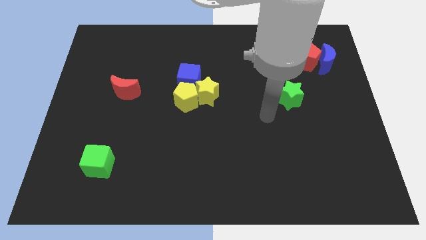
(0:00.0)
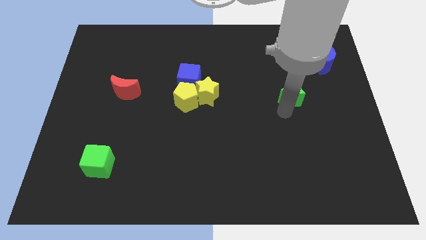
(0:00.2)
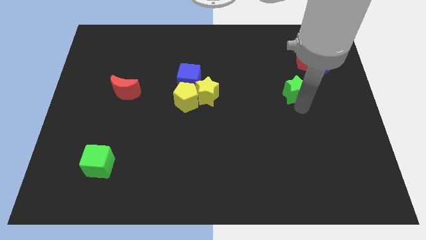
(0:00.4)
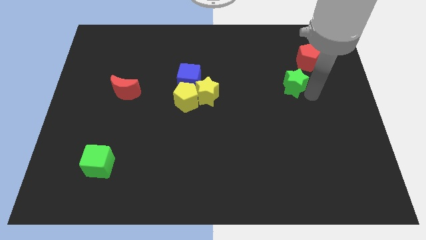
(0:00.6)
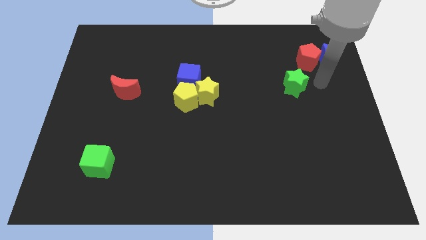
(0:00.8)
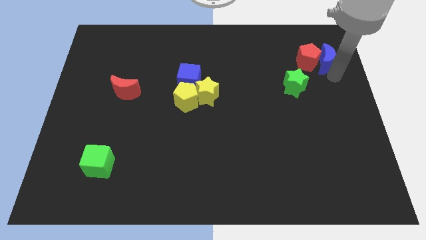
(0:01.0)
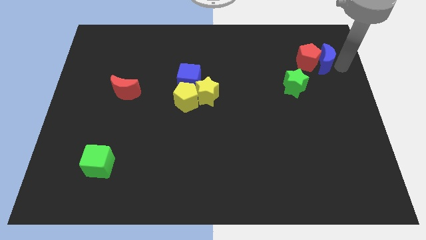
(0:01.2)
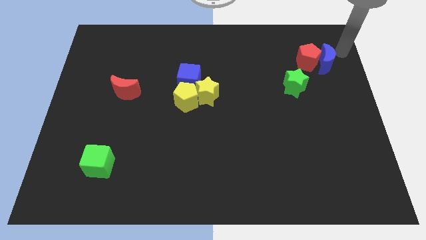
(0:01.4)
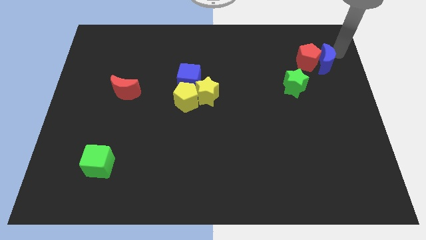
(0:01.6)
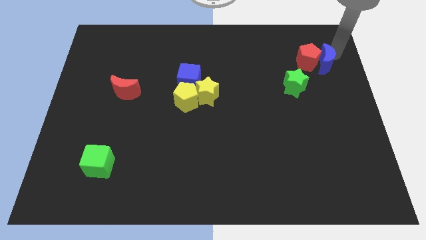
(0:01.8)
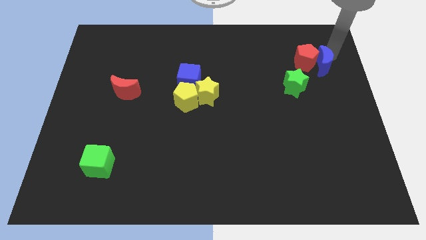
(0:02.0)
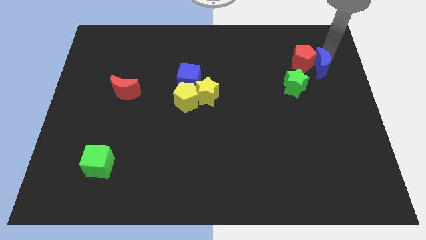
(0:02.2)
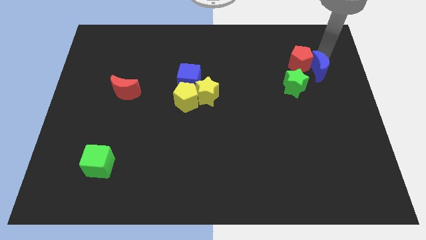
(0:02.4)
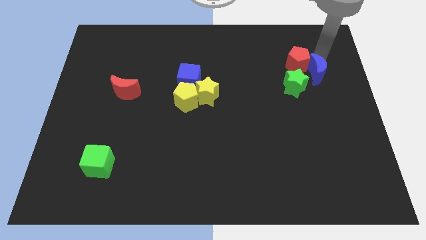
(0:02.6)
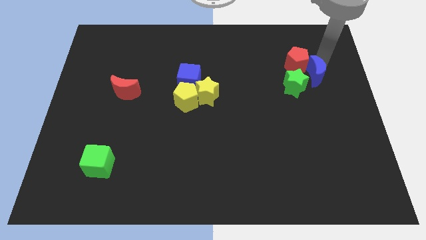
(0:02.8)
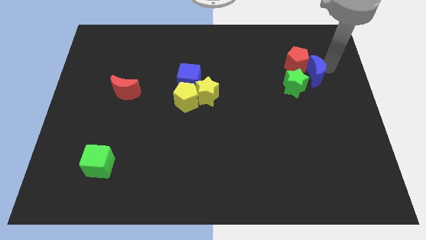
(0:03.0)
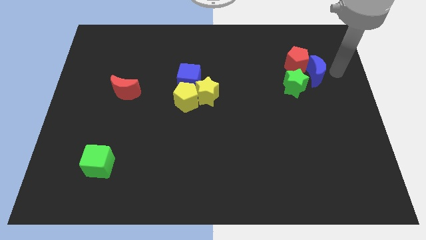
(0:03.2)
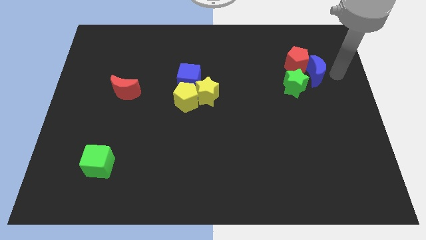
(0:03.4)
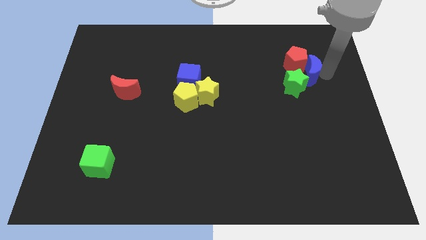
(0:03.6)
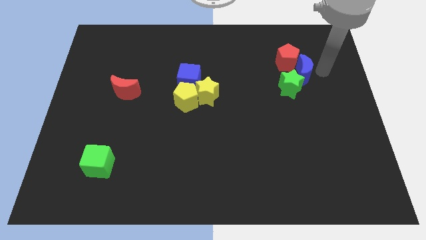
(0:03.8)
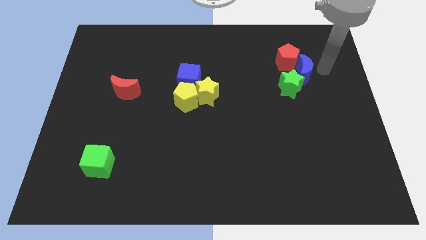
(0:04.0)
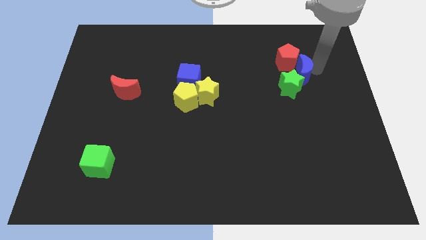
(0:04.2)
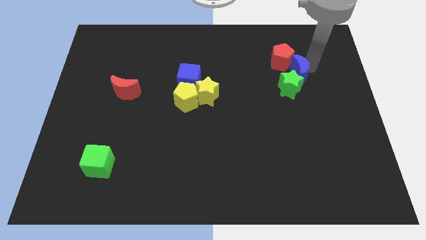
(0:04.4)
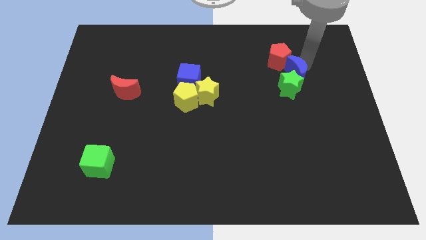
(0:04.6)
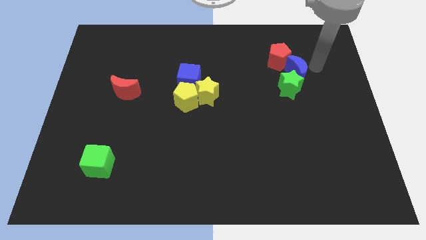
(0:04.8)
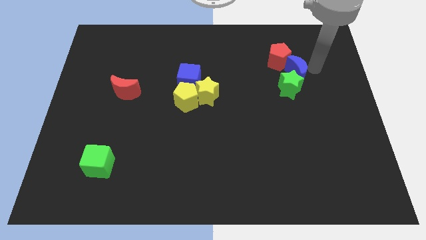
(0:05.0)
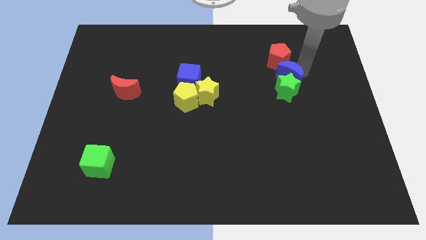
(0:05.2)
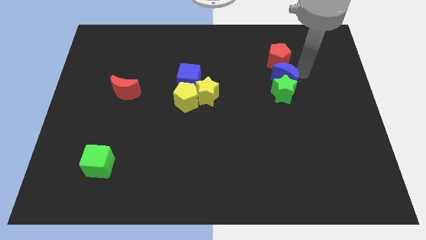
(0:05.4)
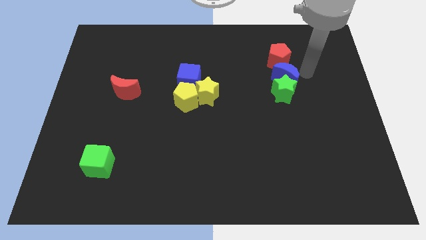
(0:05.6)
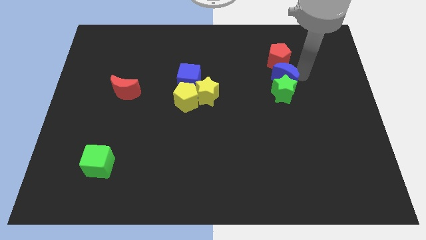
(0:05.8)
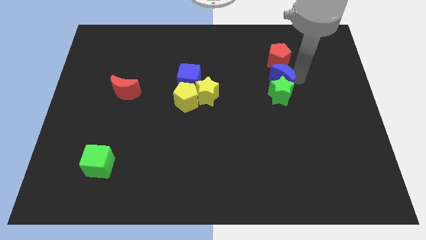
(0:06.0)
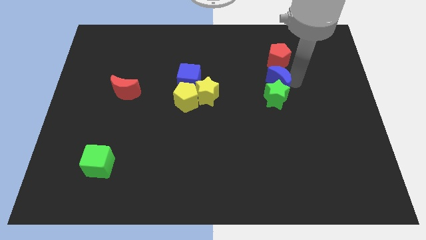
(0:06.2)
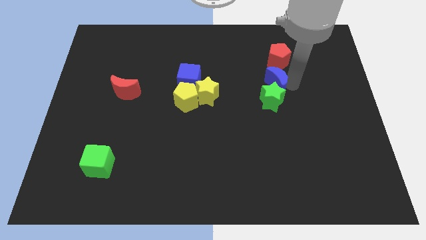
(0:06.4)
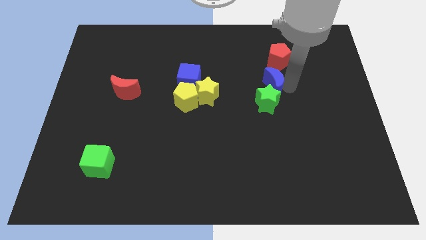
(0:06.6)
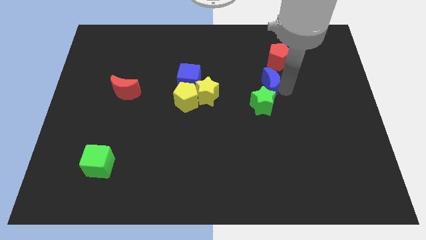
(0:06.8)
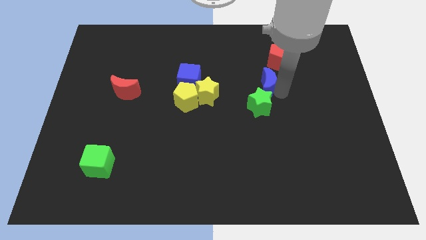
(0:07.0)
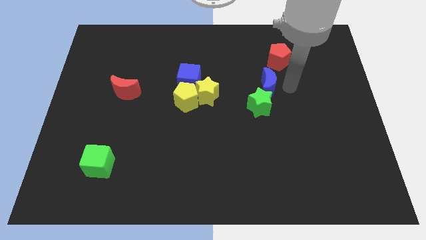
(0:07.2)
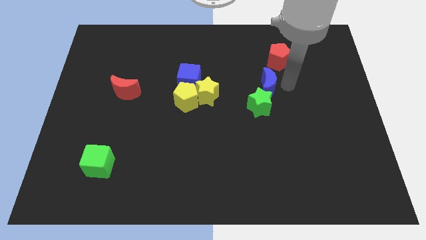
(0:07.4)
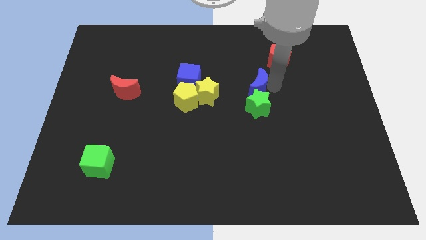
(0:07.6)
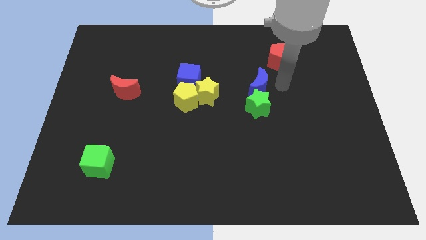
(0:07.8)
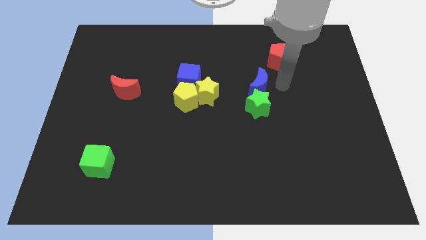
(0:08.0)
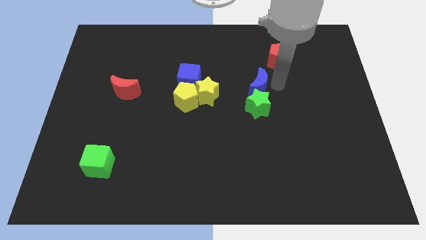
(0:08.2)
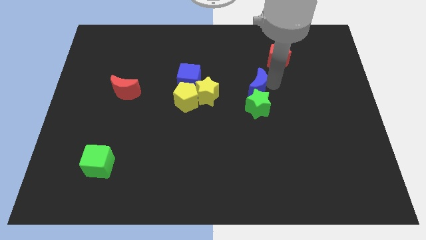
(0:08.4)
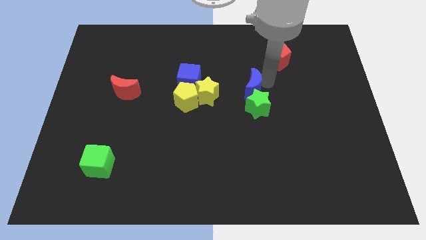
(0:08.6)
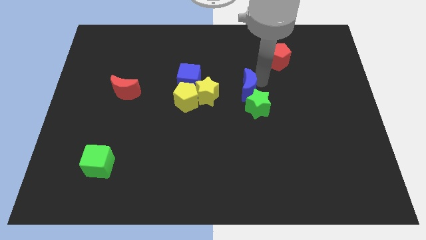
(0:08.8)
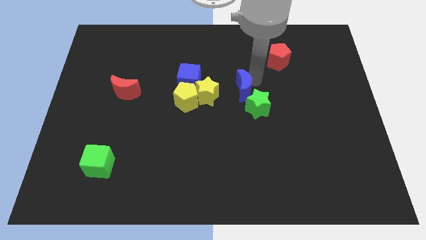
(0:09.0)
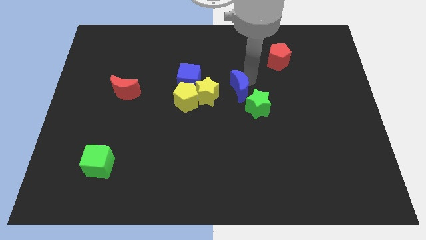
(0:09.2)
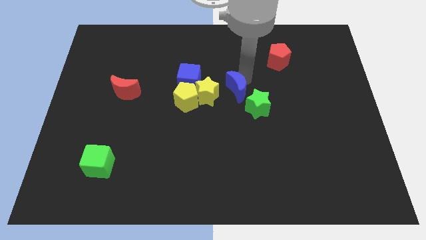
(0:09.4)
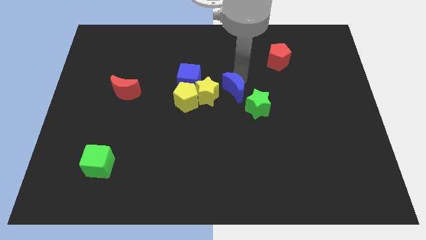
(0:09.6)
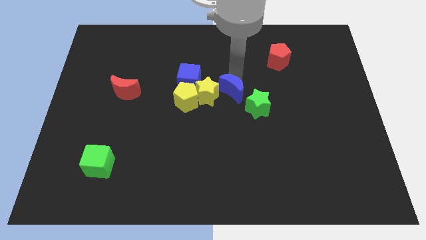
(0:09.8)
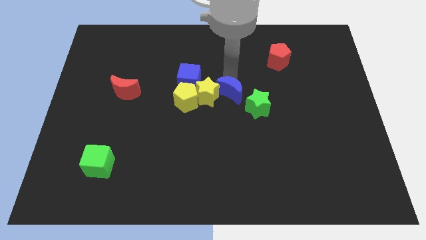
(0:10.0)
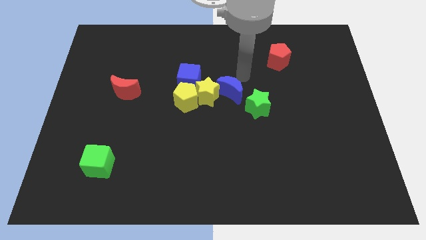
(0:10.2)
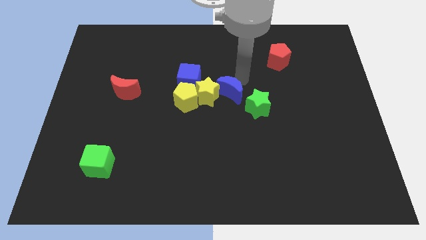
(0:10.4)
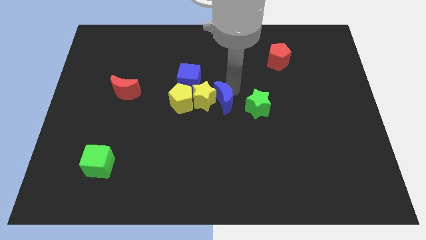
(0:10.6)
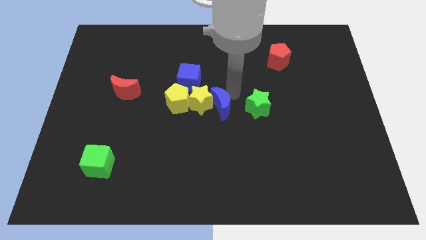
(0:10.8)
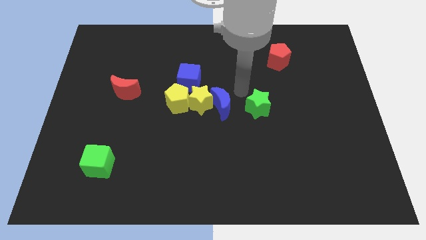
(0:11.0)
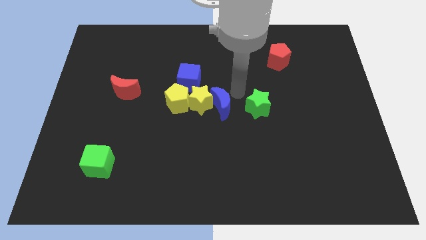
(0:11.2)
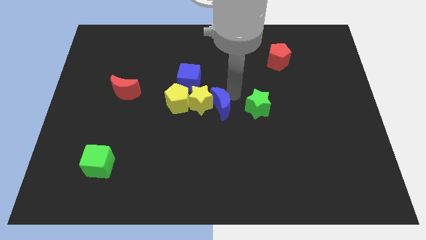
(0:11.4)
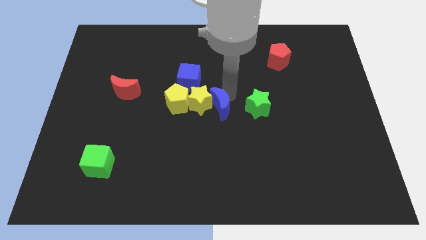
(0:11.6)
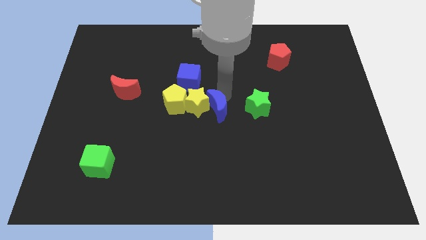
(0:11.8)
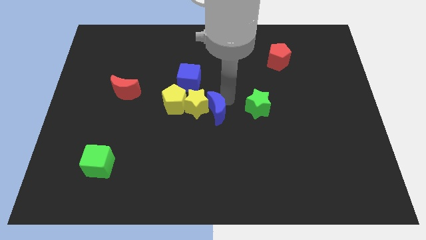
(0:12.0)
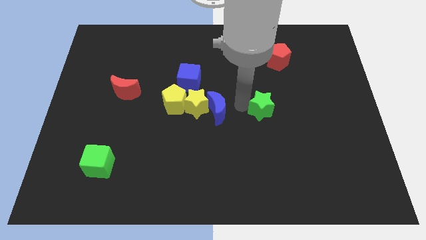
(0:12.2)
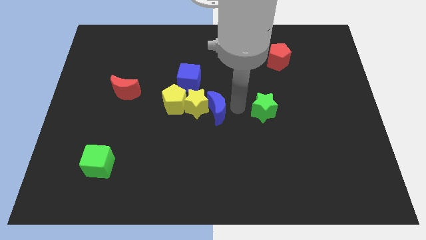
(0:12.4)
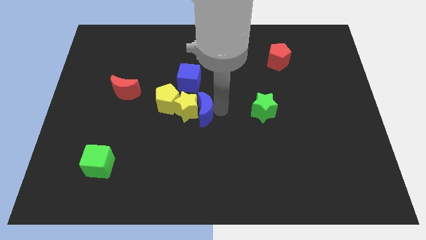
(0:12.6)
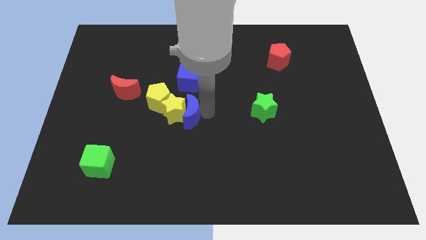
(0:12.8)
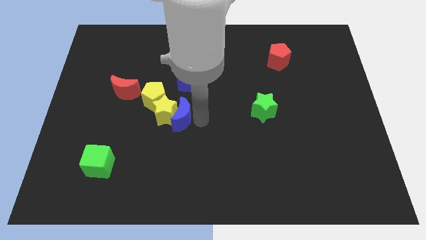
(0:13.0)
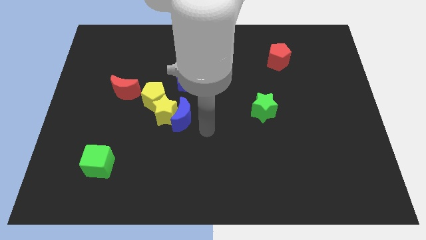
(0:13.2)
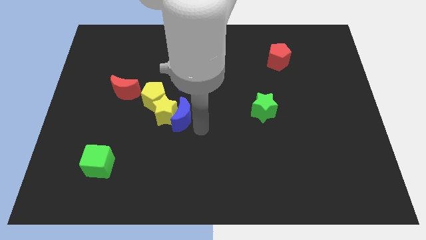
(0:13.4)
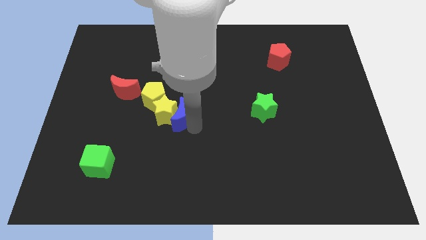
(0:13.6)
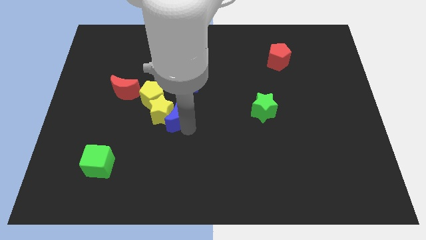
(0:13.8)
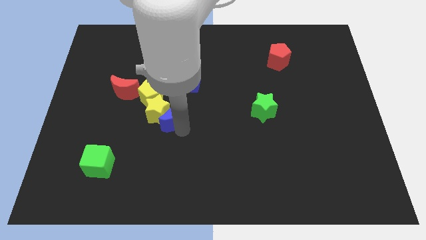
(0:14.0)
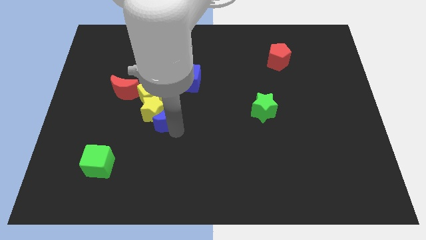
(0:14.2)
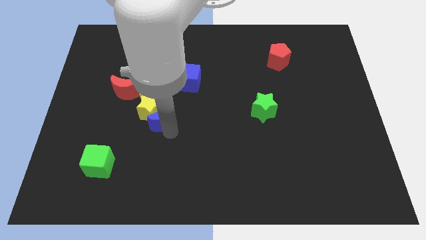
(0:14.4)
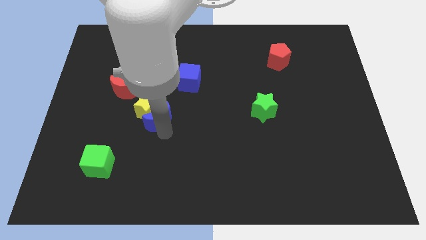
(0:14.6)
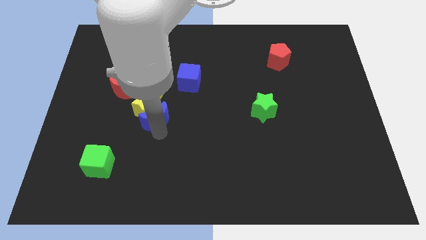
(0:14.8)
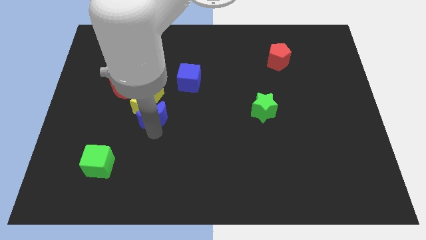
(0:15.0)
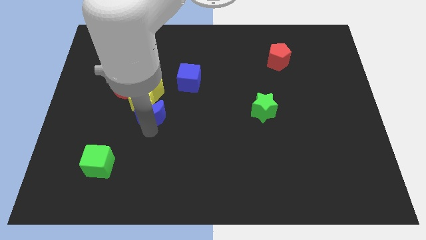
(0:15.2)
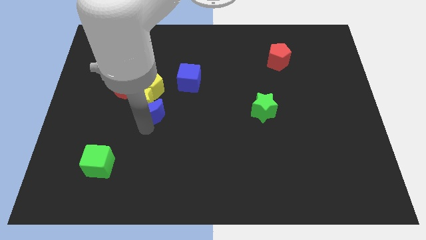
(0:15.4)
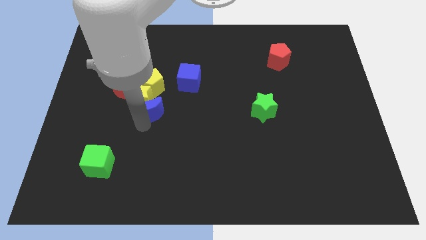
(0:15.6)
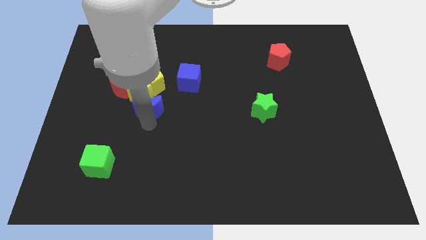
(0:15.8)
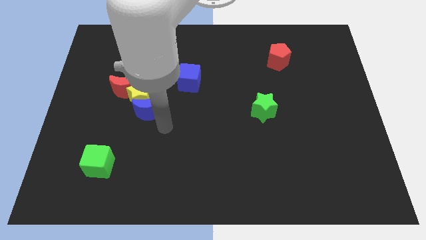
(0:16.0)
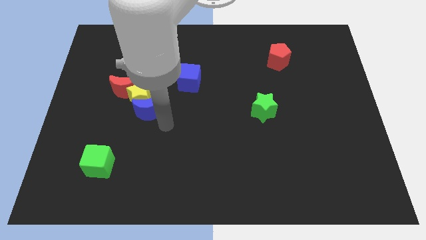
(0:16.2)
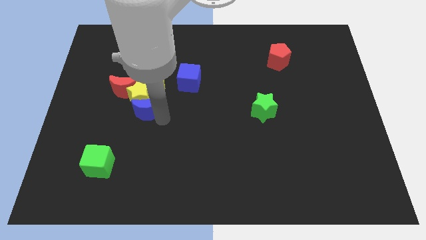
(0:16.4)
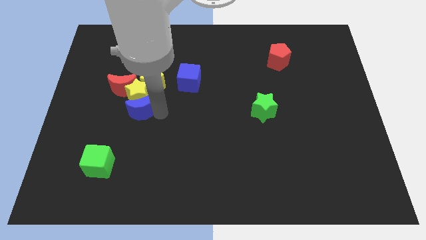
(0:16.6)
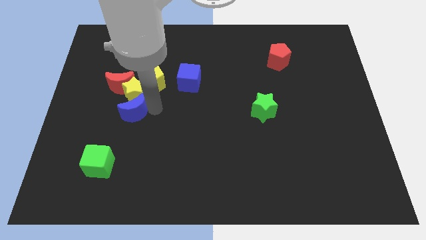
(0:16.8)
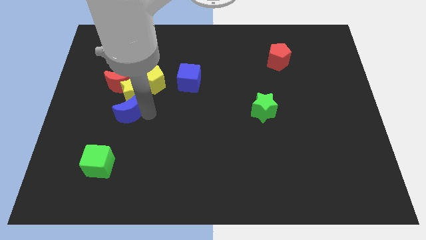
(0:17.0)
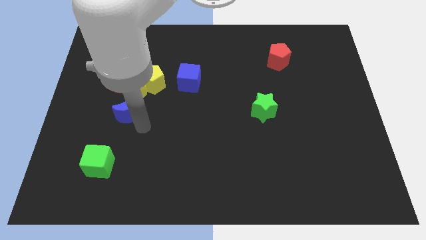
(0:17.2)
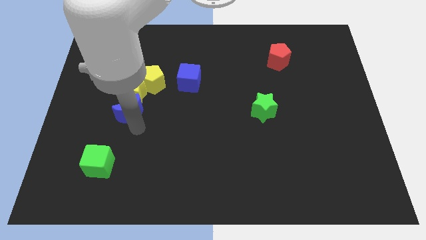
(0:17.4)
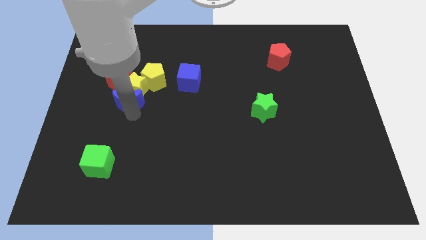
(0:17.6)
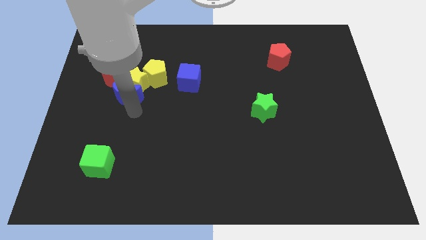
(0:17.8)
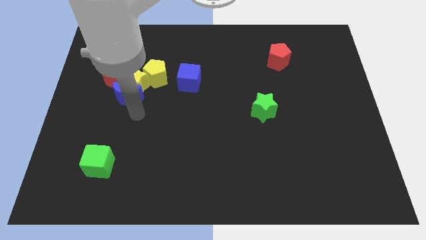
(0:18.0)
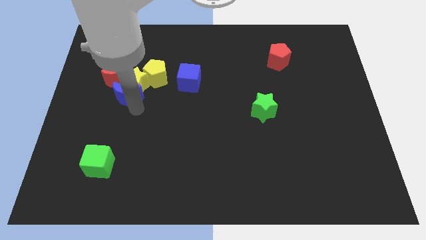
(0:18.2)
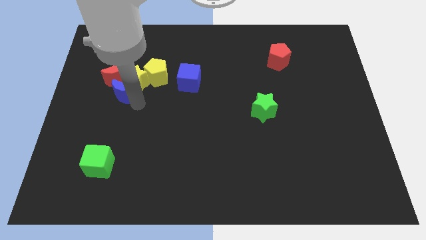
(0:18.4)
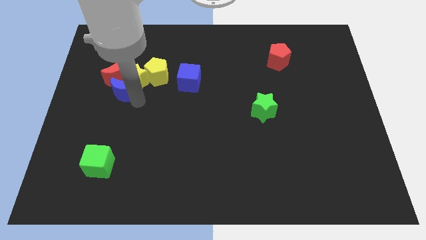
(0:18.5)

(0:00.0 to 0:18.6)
put the blue moon close to the red moon
